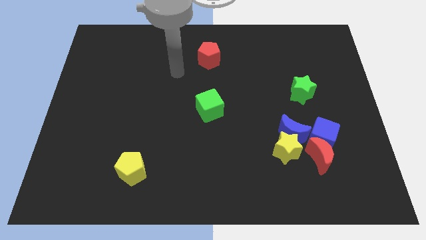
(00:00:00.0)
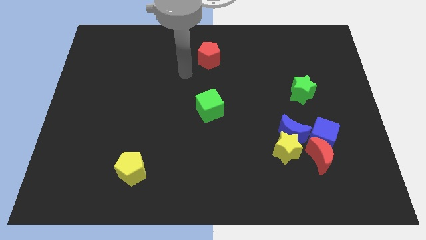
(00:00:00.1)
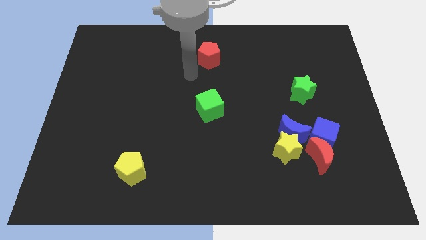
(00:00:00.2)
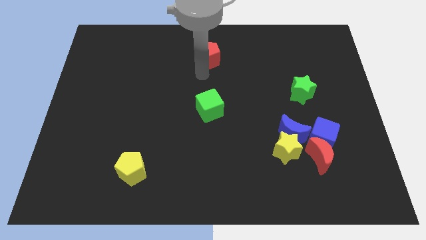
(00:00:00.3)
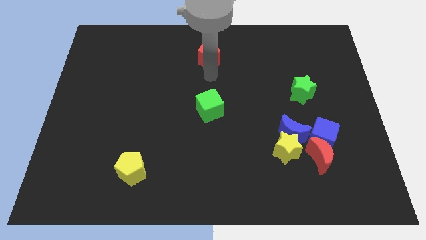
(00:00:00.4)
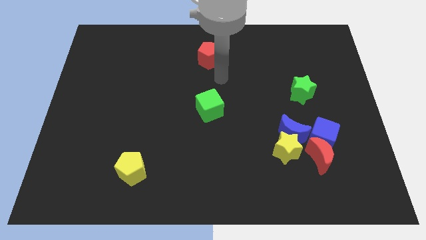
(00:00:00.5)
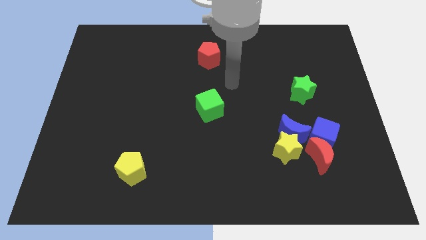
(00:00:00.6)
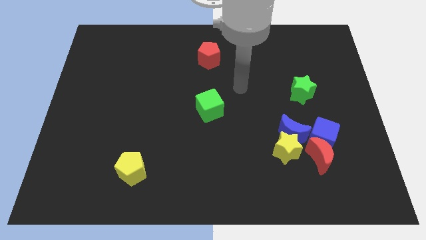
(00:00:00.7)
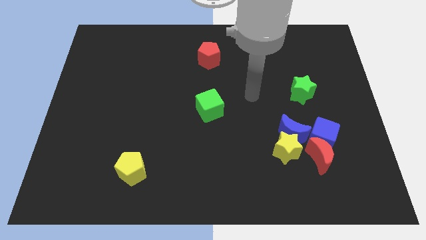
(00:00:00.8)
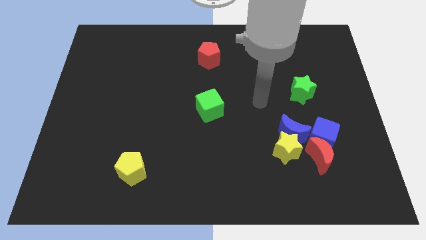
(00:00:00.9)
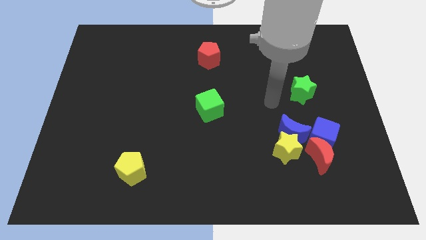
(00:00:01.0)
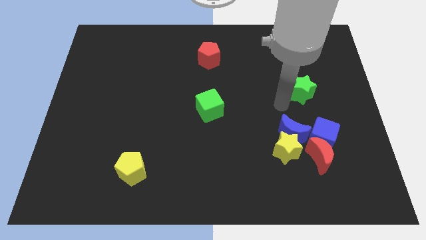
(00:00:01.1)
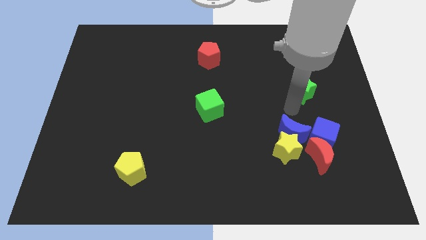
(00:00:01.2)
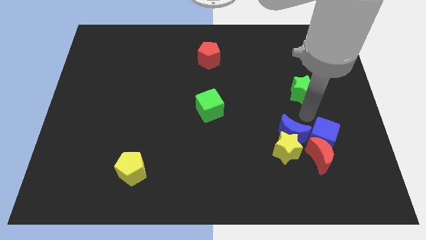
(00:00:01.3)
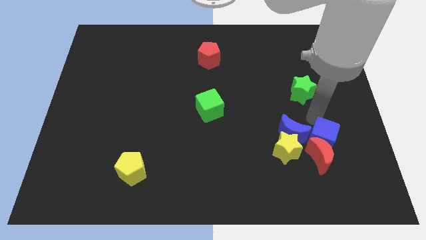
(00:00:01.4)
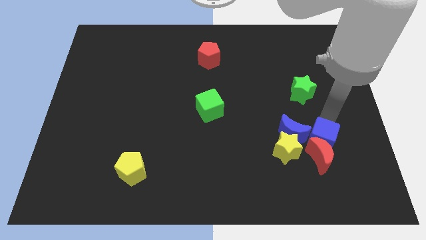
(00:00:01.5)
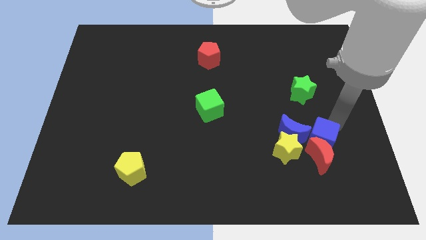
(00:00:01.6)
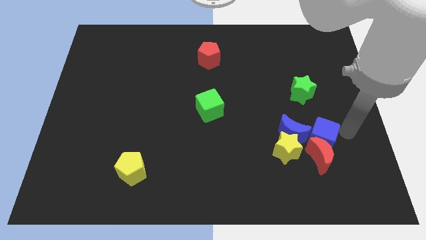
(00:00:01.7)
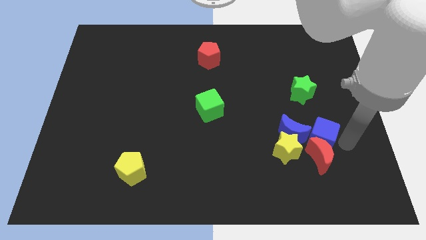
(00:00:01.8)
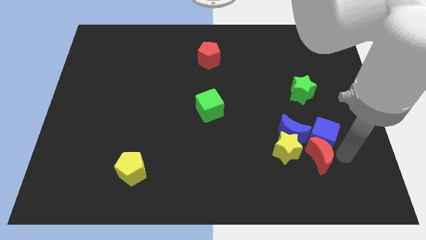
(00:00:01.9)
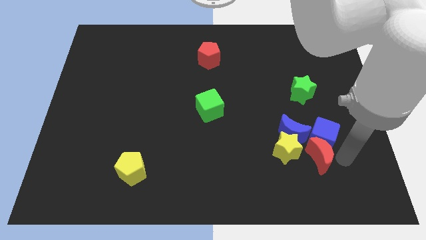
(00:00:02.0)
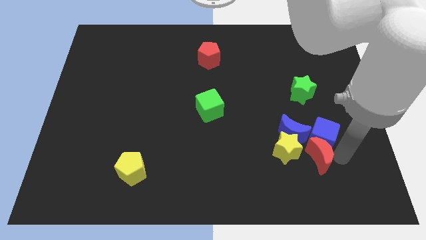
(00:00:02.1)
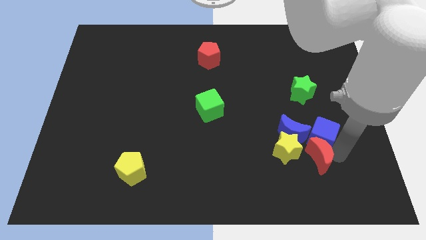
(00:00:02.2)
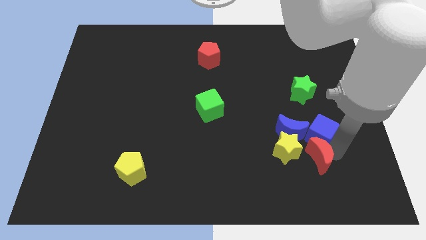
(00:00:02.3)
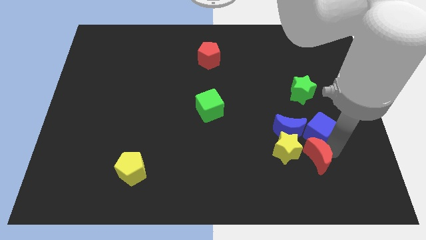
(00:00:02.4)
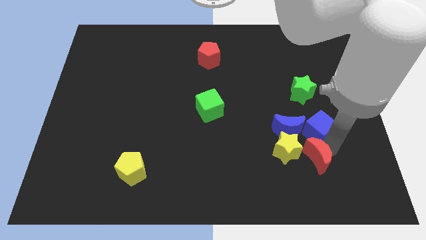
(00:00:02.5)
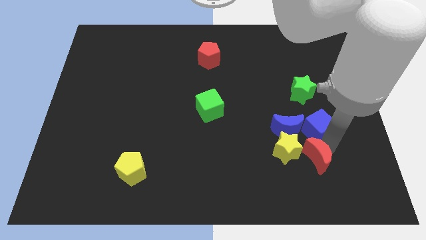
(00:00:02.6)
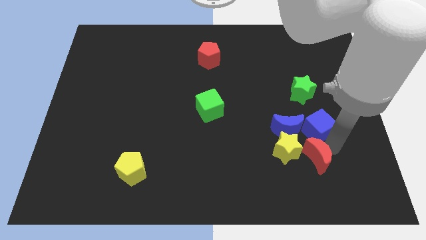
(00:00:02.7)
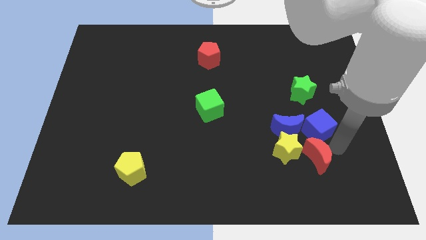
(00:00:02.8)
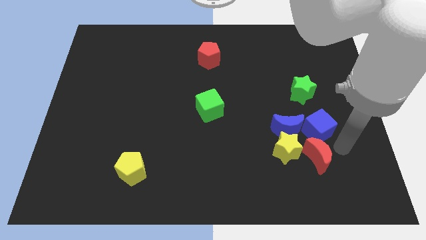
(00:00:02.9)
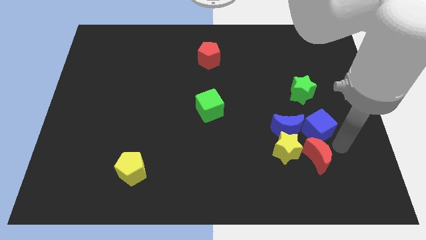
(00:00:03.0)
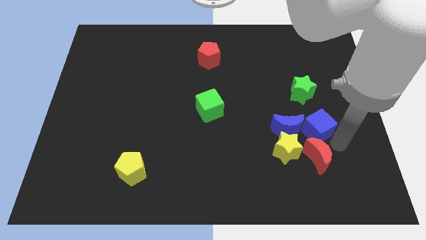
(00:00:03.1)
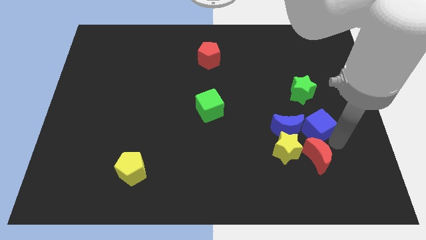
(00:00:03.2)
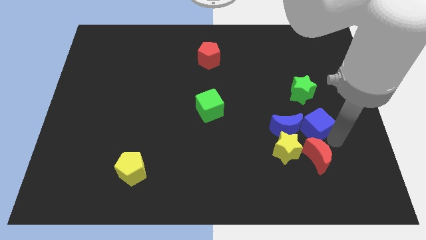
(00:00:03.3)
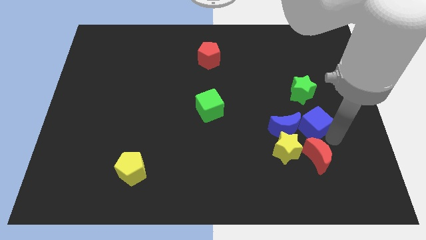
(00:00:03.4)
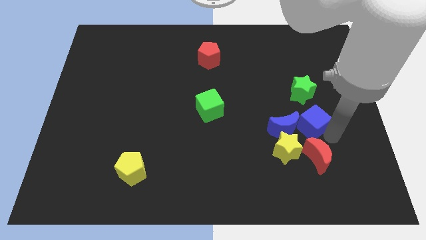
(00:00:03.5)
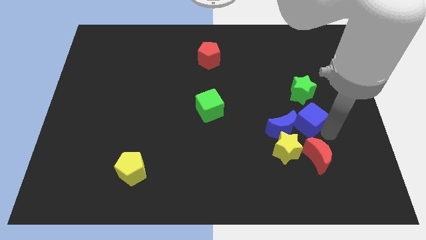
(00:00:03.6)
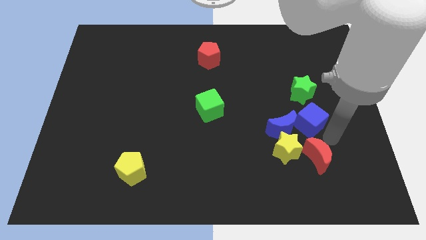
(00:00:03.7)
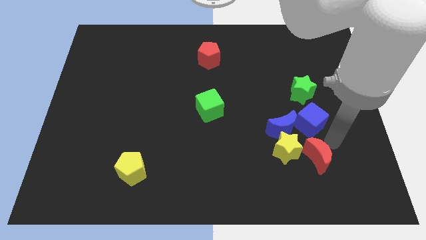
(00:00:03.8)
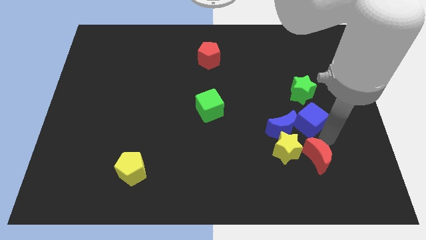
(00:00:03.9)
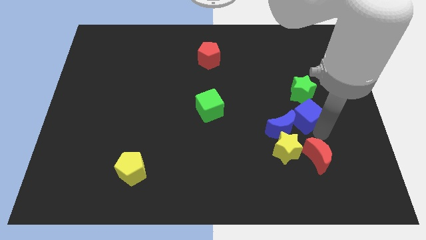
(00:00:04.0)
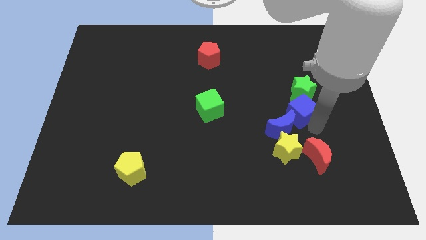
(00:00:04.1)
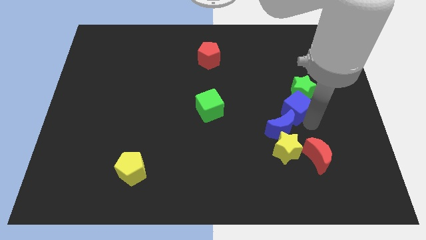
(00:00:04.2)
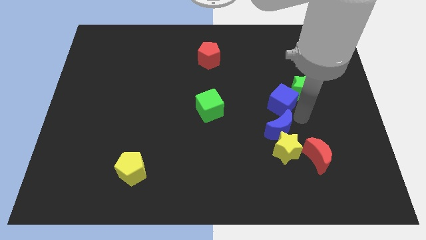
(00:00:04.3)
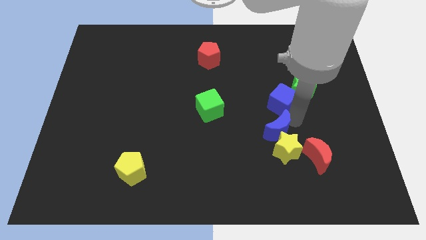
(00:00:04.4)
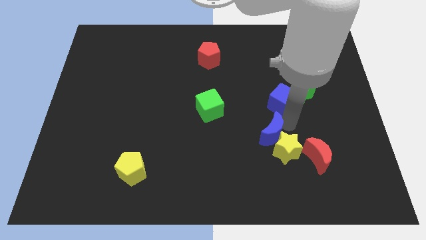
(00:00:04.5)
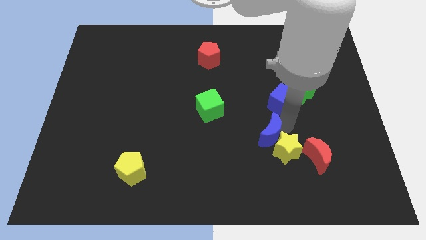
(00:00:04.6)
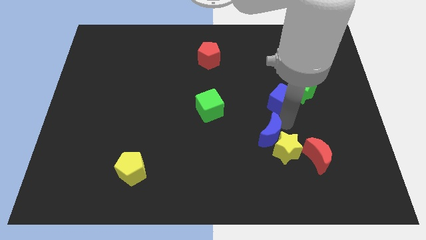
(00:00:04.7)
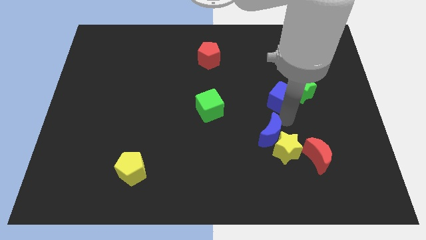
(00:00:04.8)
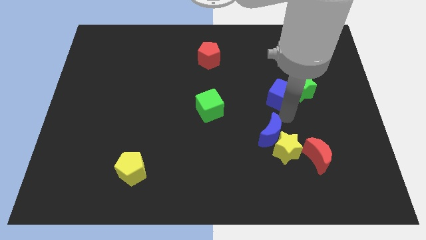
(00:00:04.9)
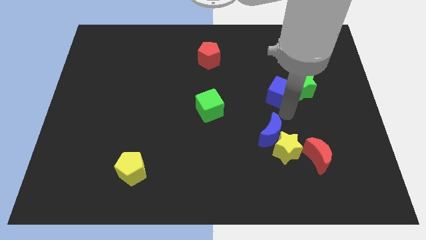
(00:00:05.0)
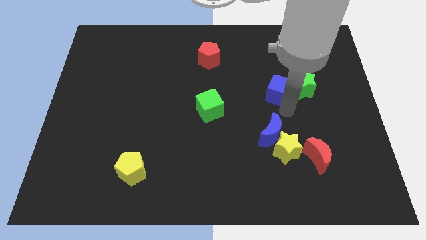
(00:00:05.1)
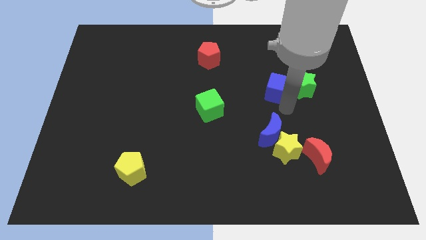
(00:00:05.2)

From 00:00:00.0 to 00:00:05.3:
move the blue cube diagonally up and to the left of the green star

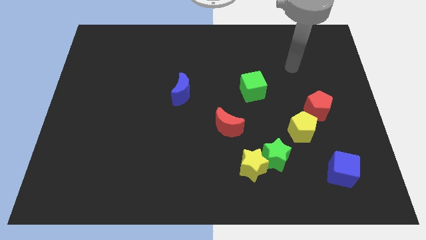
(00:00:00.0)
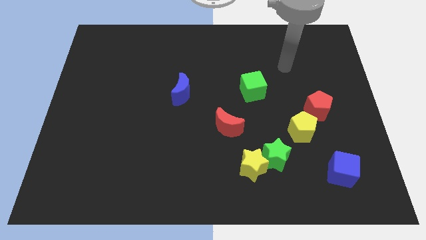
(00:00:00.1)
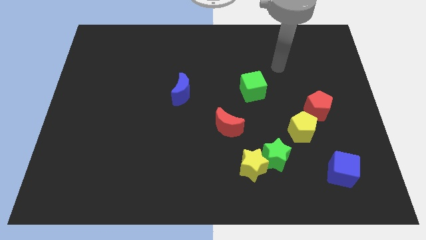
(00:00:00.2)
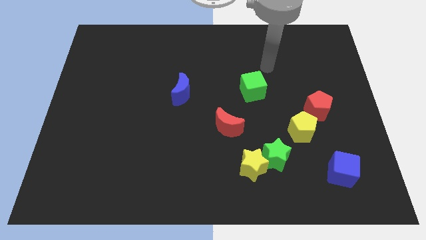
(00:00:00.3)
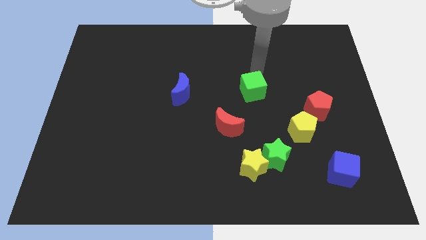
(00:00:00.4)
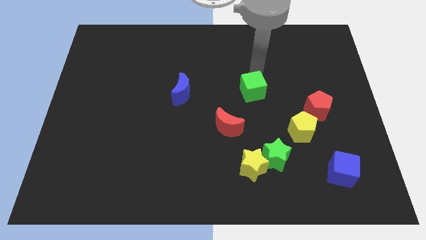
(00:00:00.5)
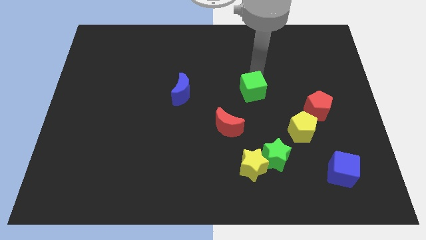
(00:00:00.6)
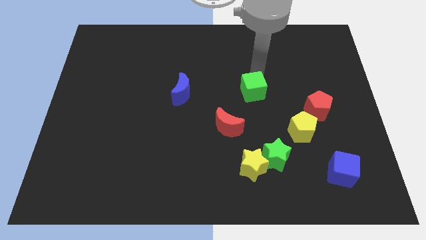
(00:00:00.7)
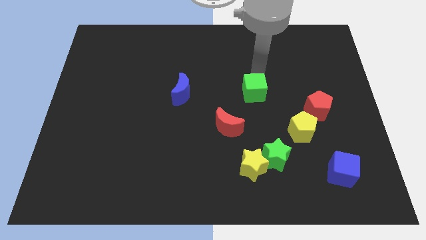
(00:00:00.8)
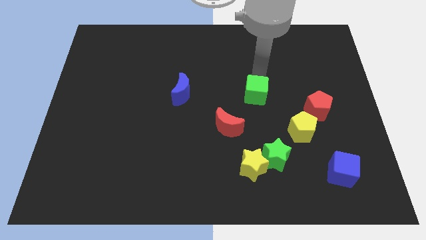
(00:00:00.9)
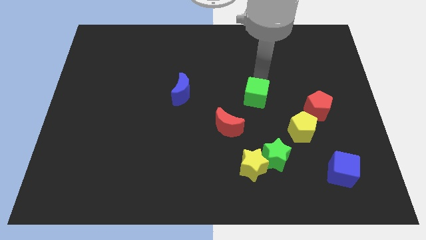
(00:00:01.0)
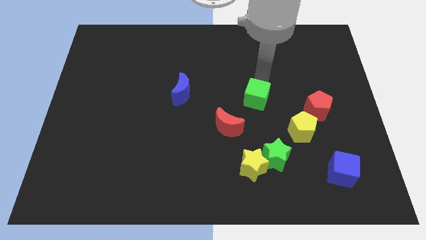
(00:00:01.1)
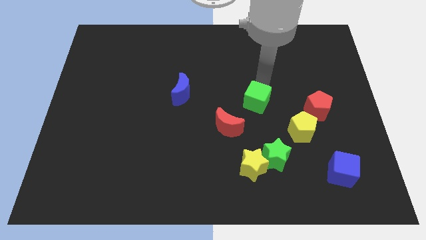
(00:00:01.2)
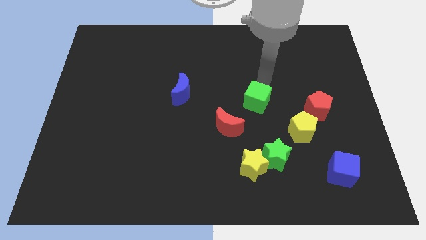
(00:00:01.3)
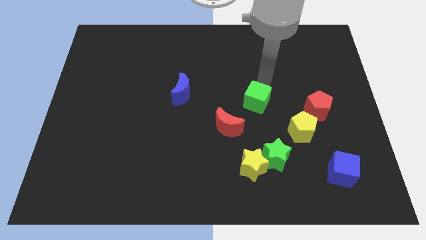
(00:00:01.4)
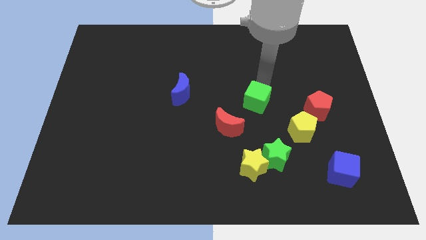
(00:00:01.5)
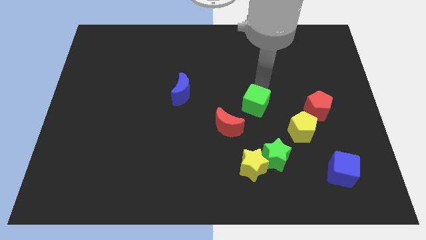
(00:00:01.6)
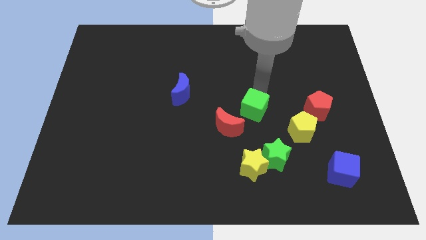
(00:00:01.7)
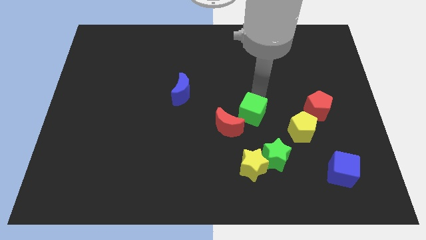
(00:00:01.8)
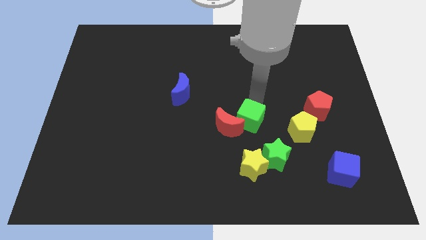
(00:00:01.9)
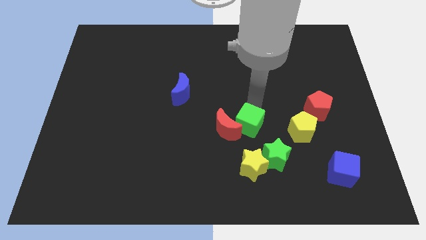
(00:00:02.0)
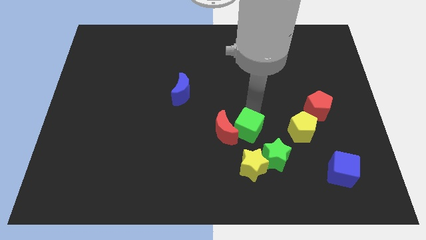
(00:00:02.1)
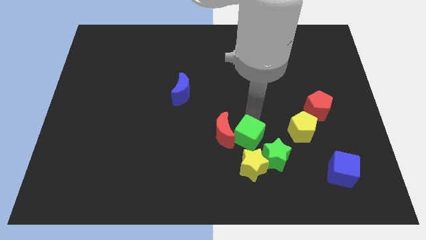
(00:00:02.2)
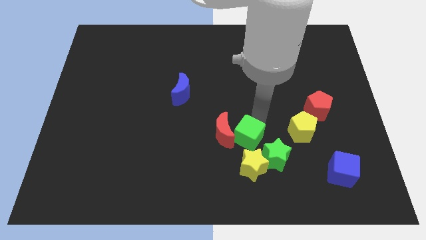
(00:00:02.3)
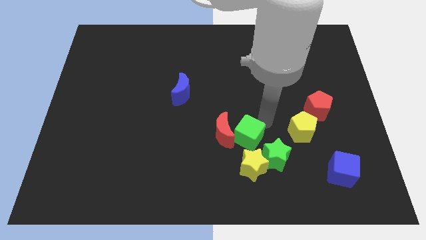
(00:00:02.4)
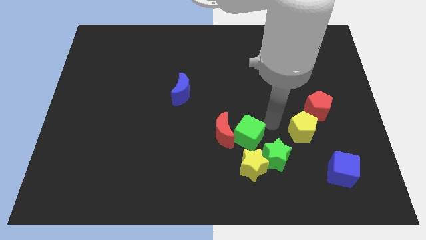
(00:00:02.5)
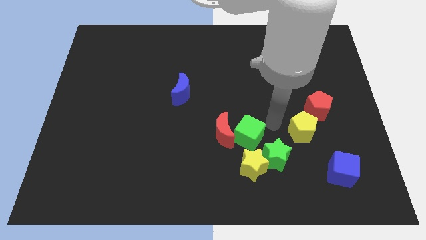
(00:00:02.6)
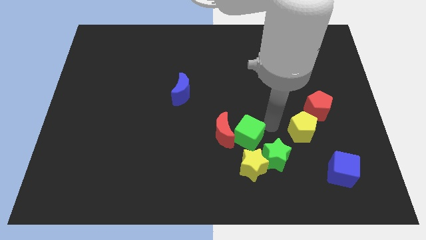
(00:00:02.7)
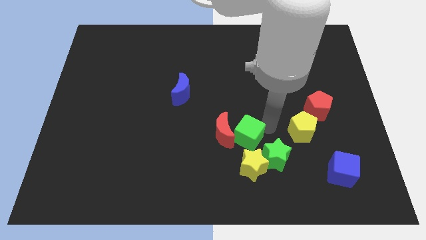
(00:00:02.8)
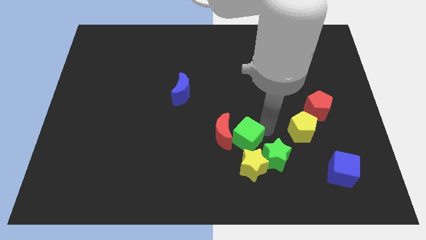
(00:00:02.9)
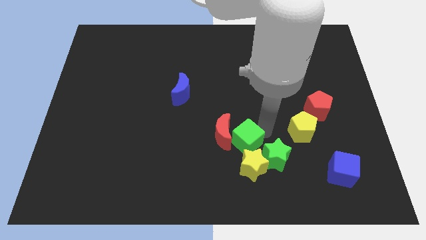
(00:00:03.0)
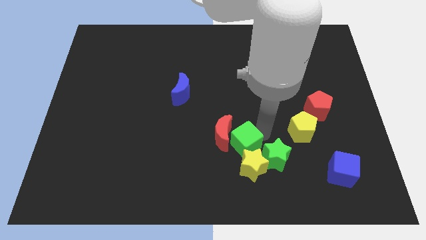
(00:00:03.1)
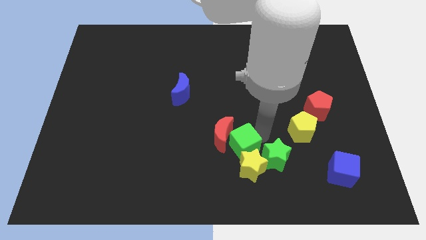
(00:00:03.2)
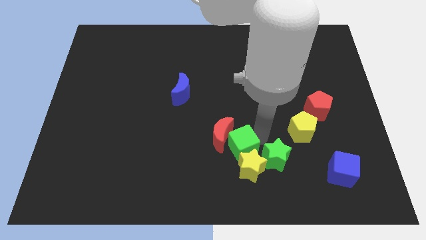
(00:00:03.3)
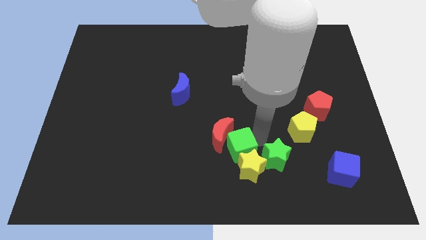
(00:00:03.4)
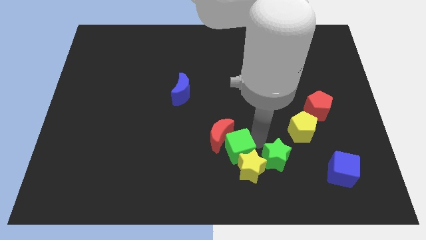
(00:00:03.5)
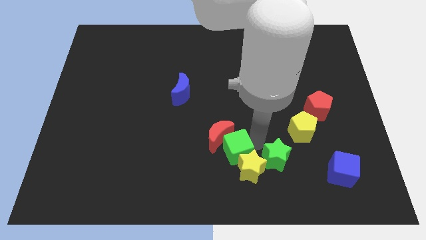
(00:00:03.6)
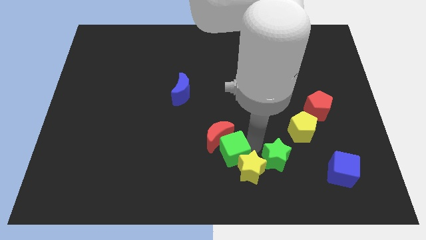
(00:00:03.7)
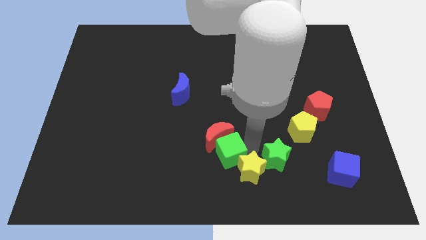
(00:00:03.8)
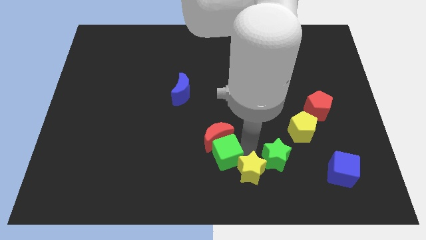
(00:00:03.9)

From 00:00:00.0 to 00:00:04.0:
move the green cube diagonally down and to the left of the red moon
